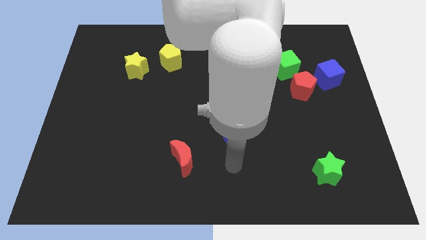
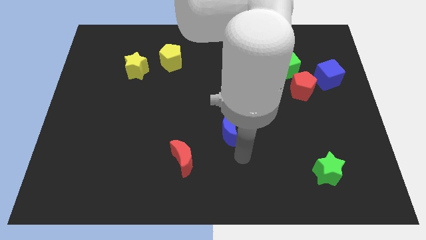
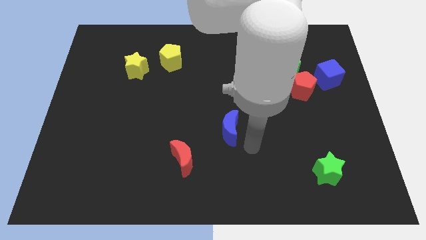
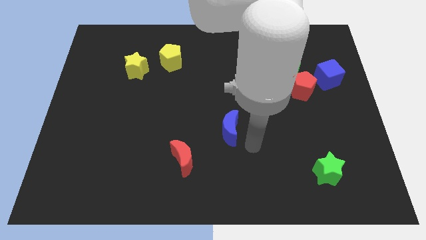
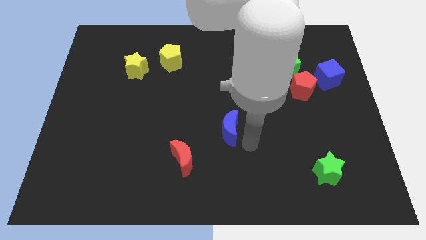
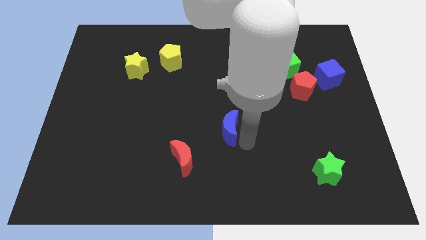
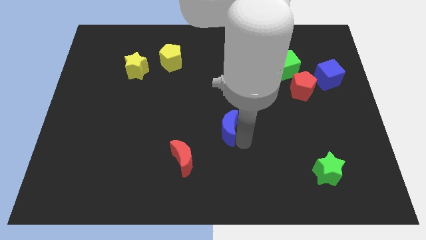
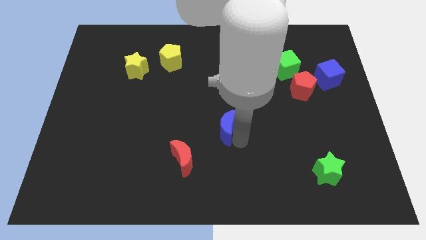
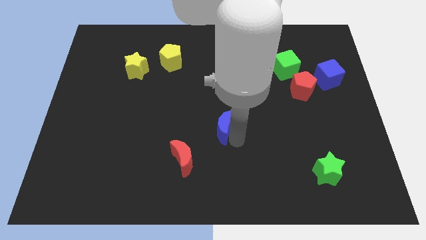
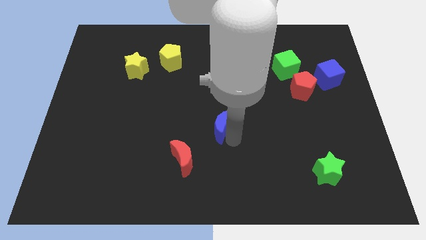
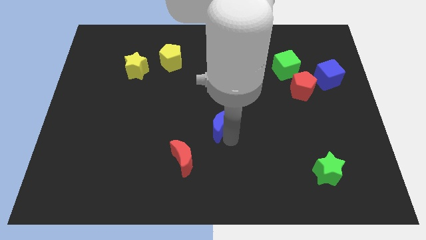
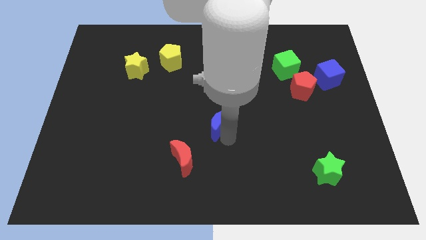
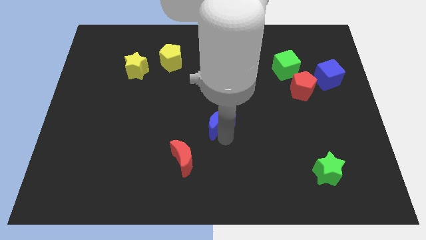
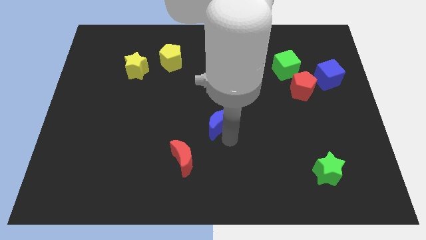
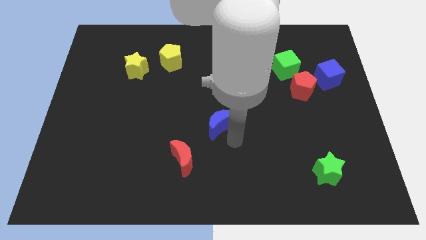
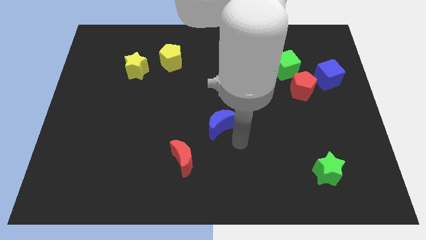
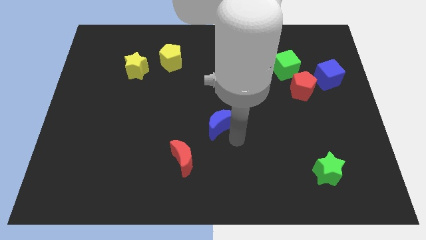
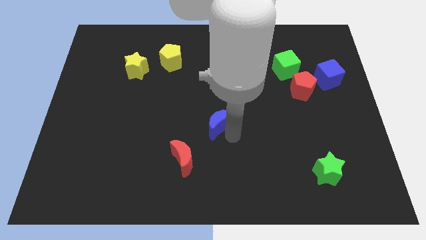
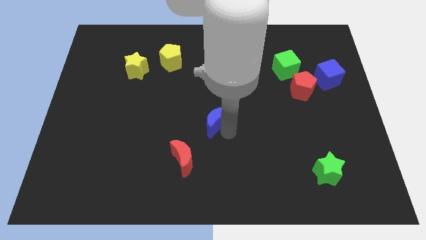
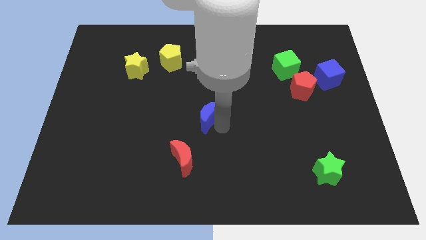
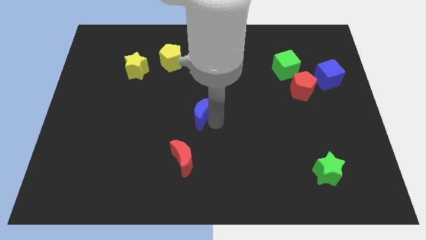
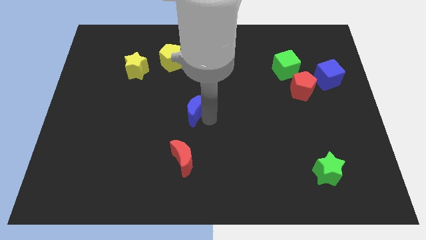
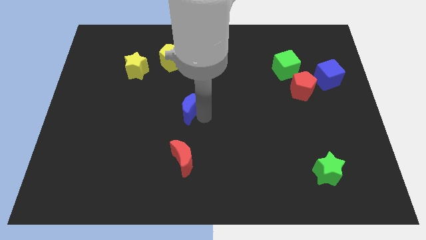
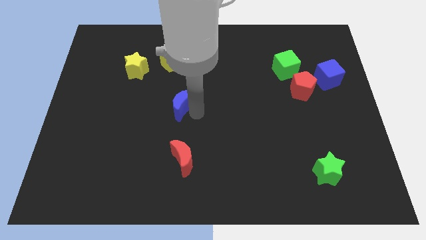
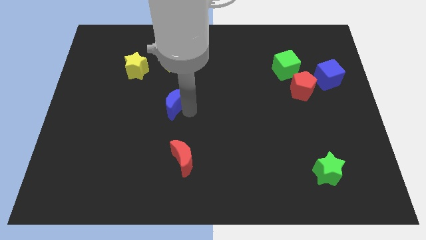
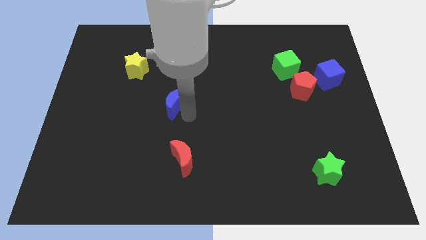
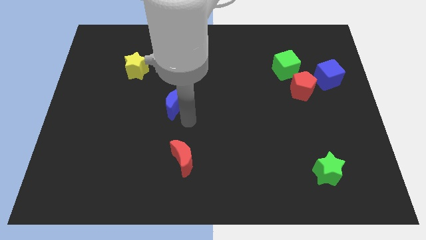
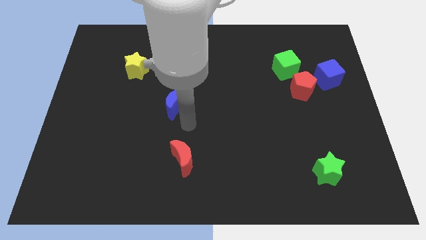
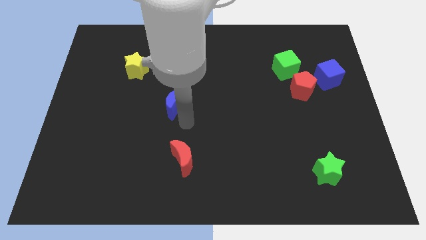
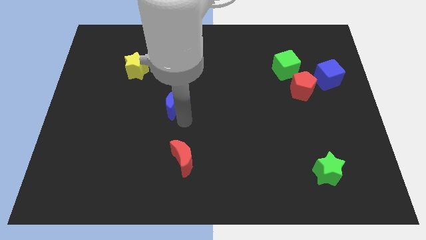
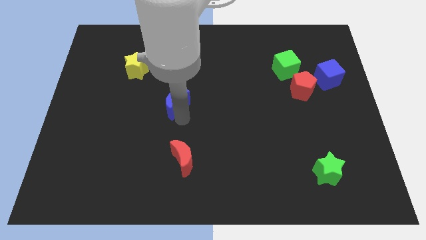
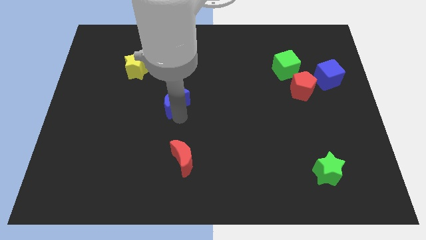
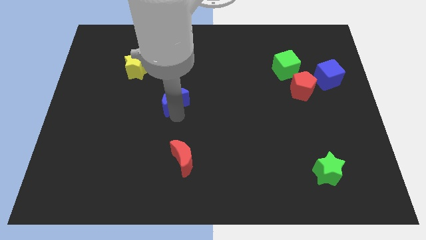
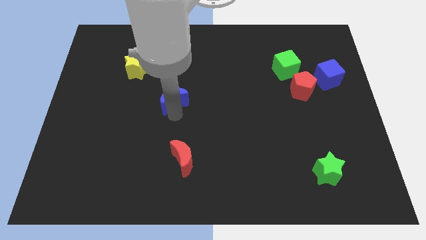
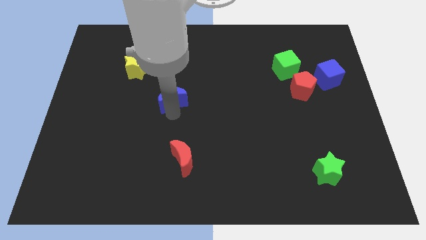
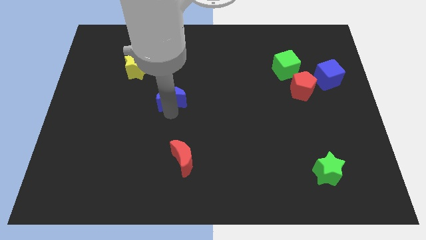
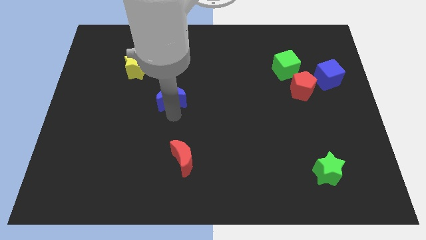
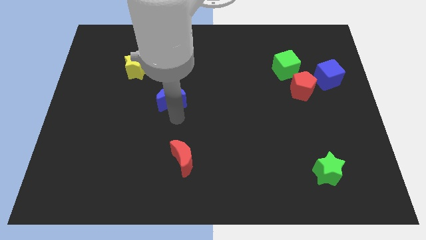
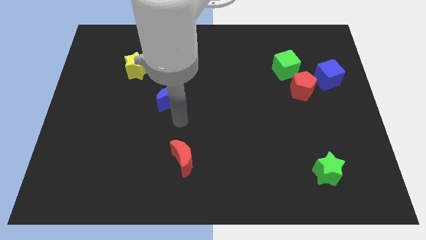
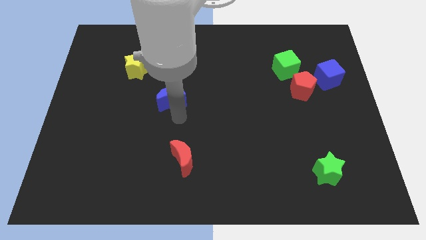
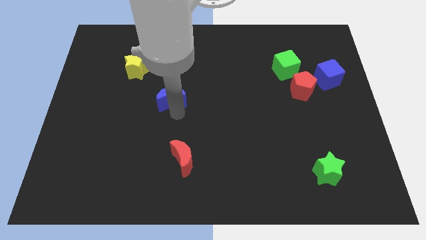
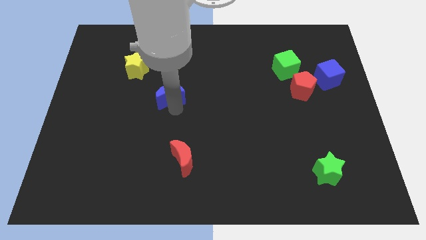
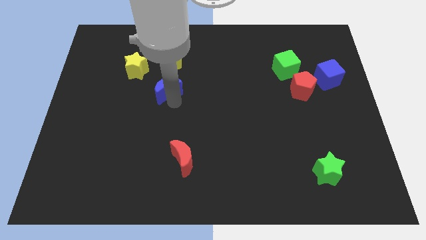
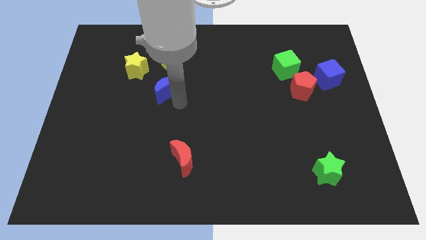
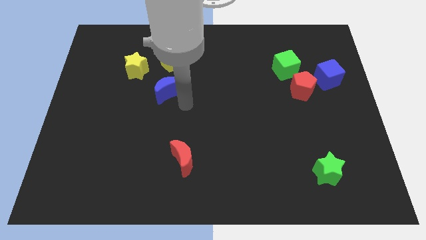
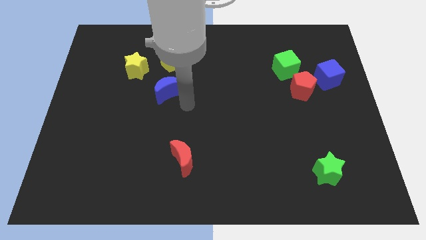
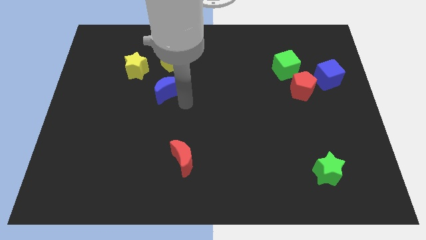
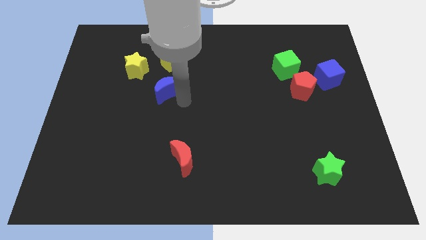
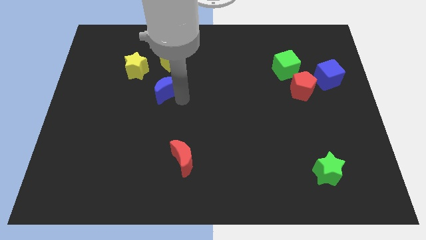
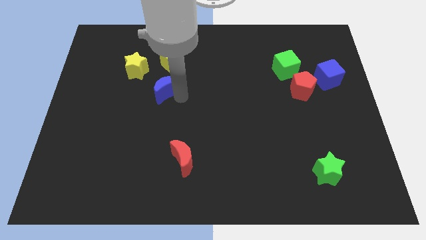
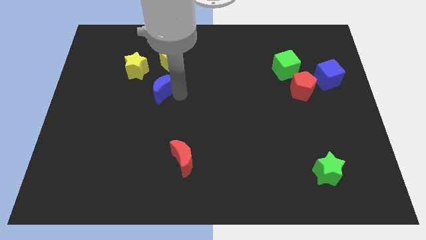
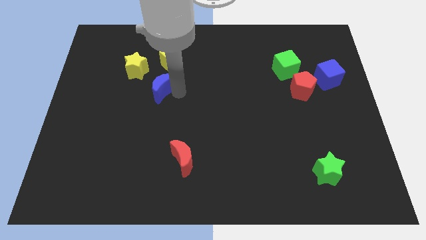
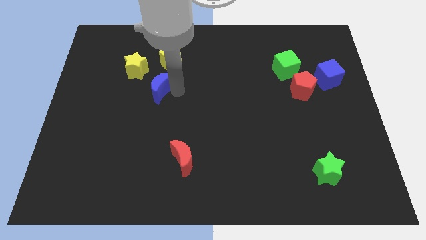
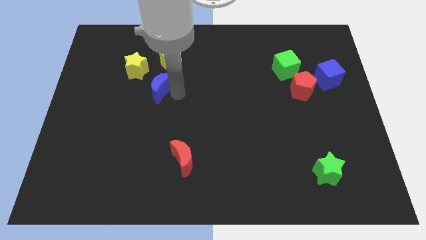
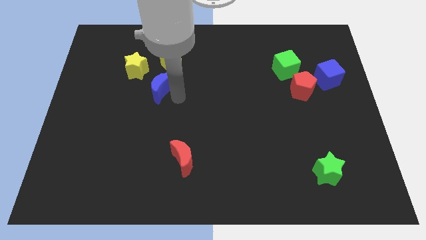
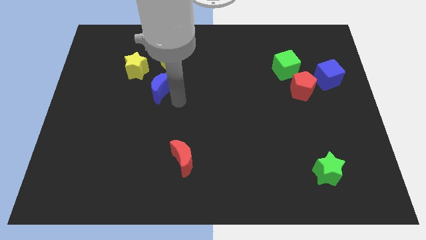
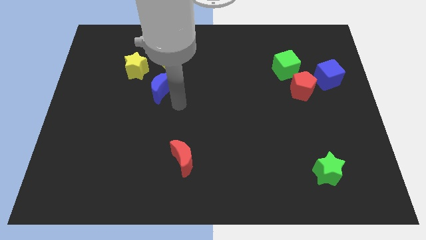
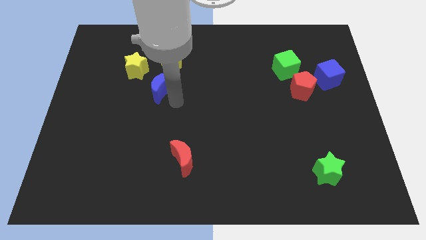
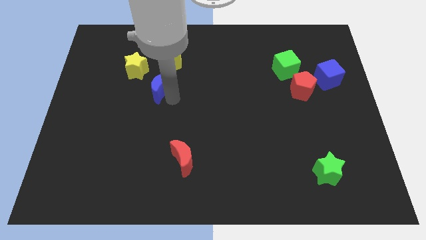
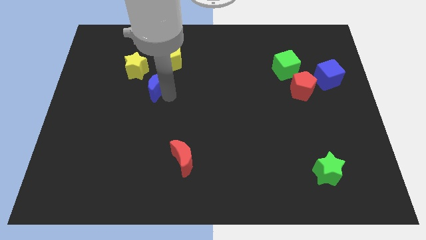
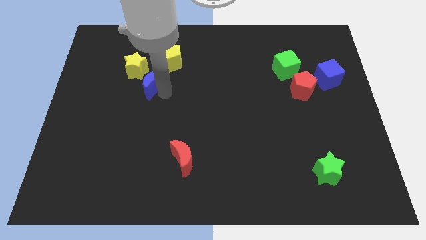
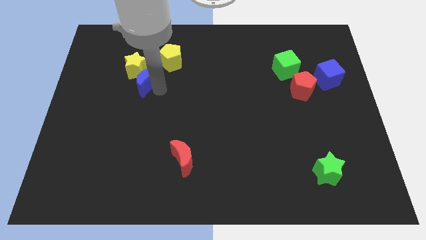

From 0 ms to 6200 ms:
put the blue moon close to the yellow star

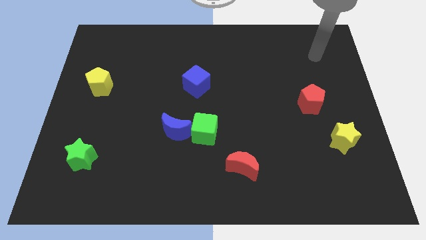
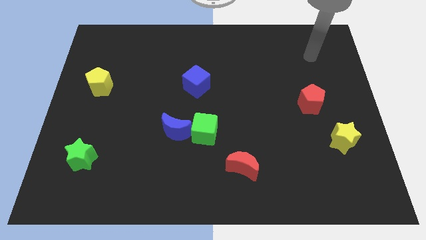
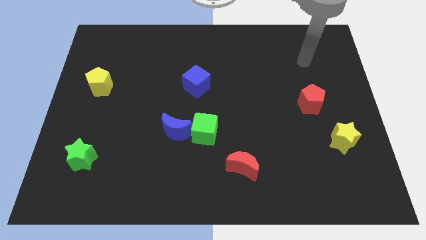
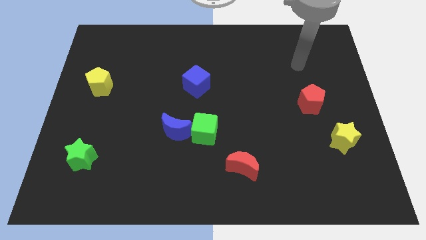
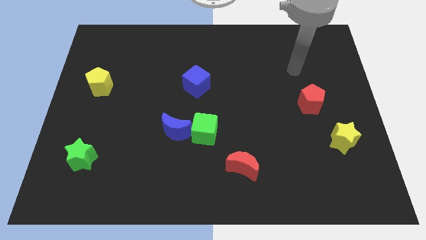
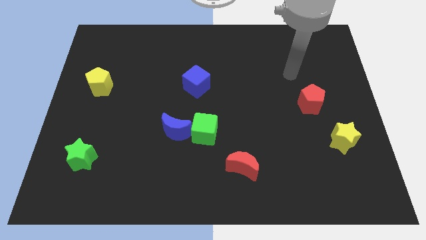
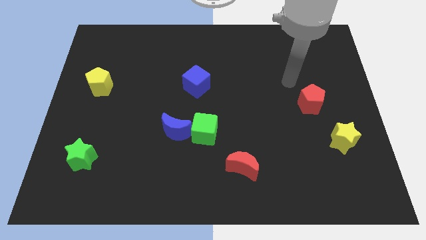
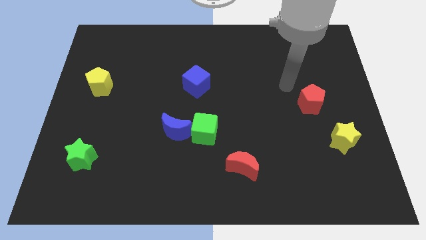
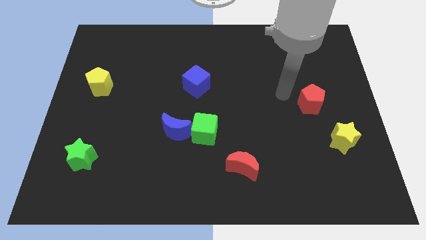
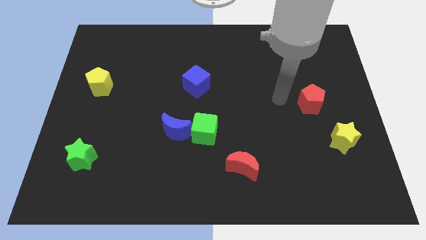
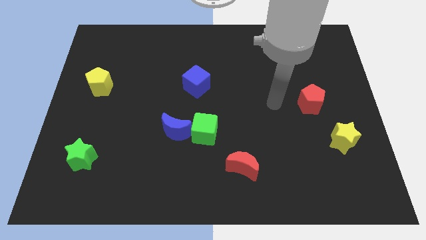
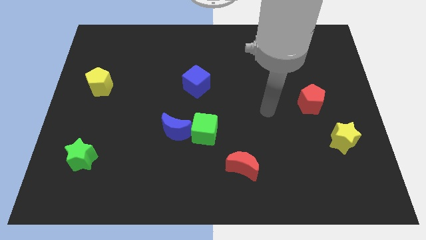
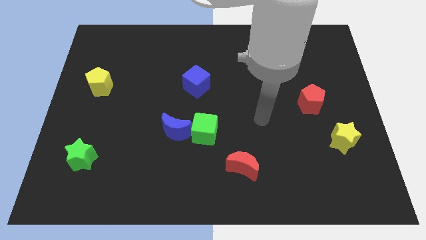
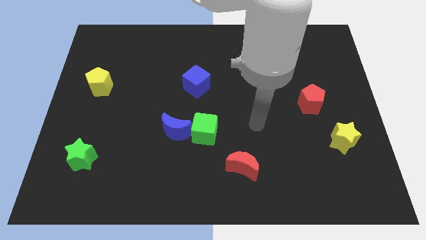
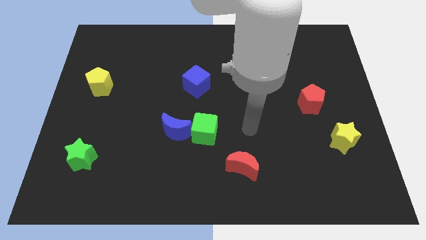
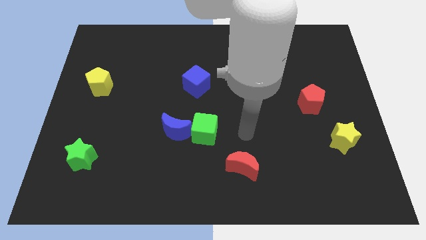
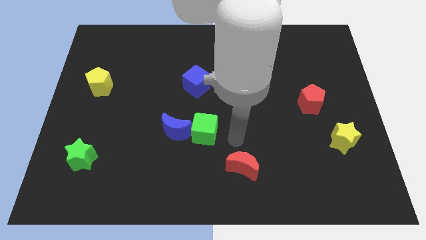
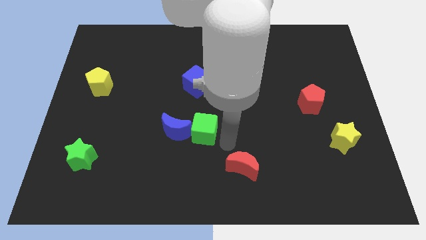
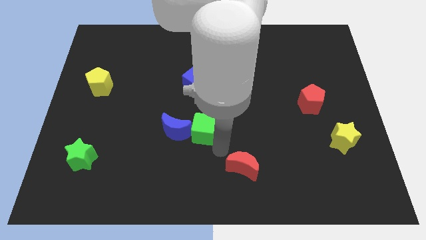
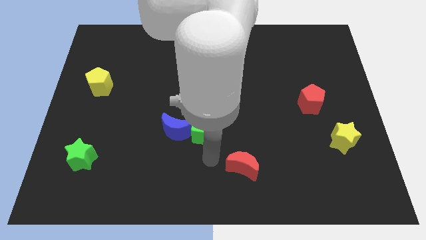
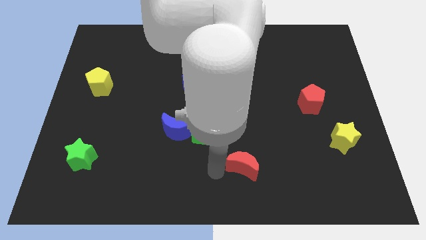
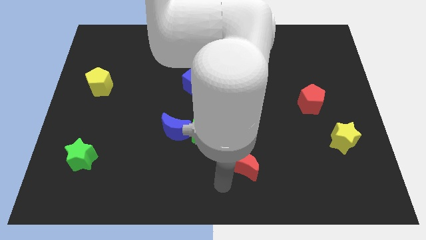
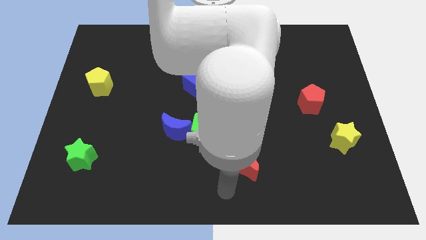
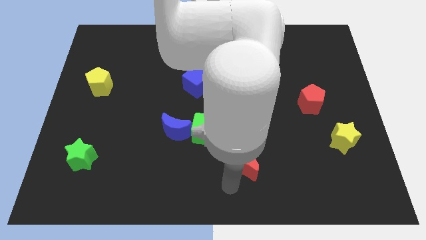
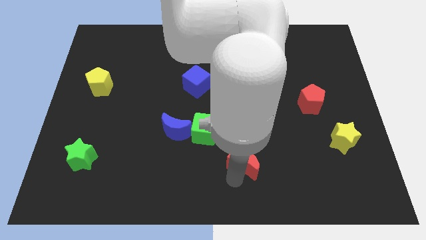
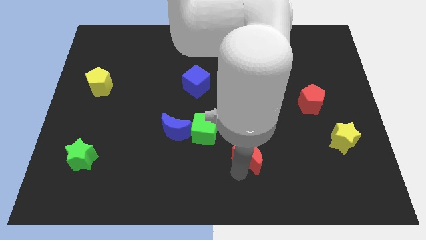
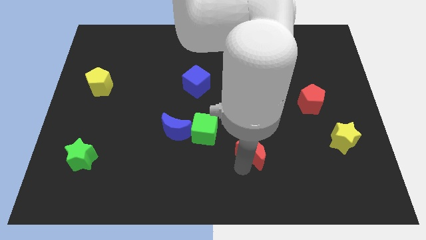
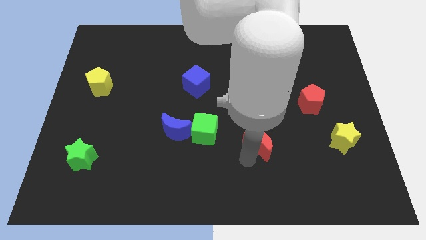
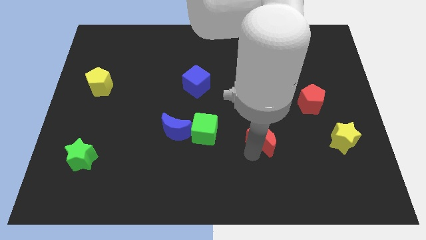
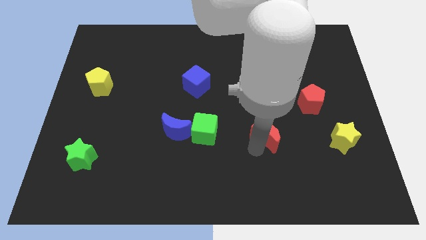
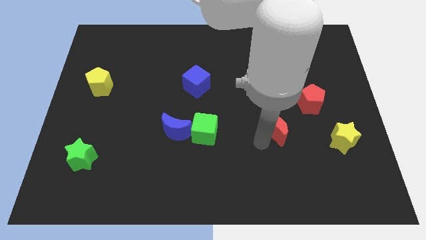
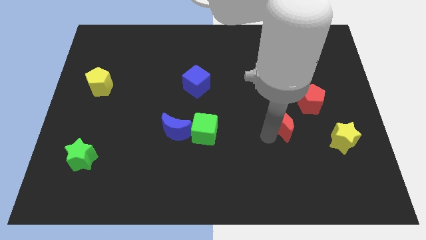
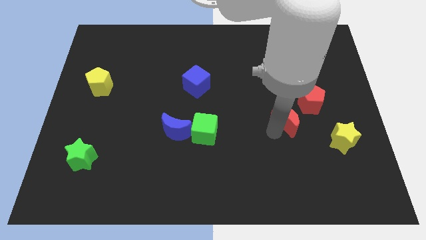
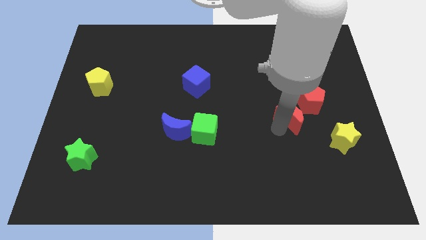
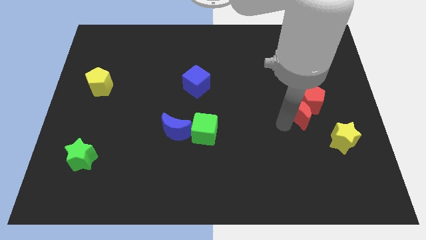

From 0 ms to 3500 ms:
slide the red moon towards the red pentagon
